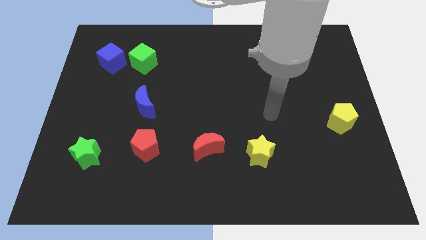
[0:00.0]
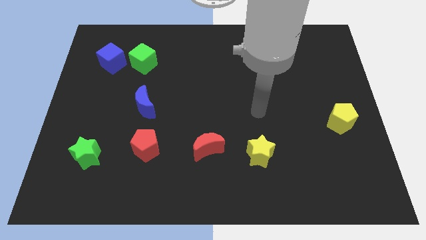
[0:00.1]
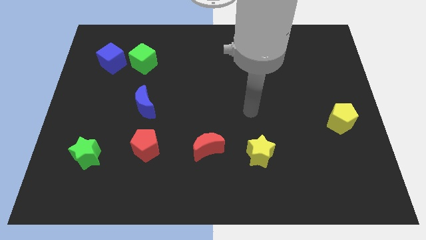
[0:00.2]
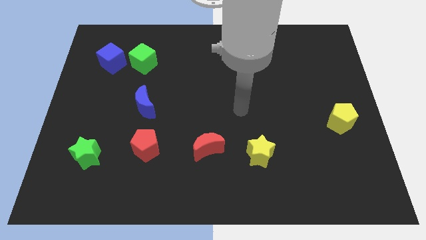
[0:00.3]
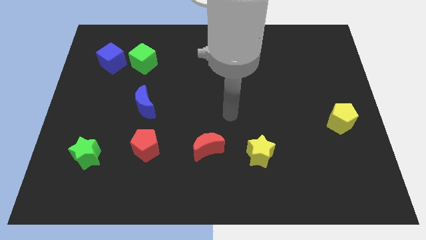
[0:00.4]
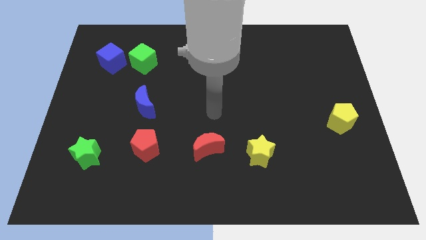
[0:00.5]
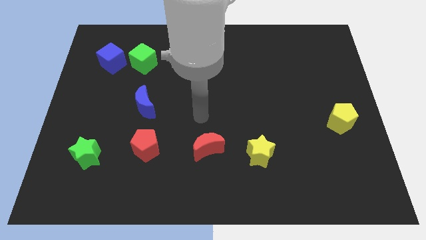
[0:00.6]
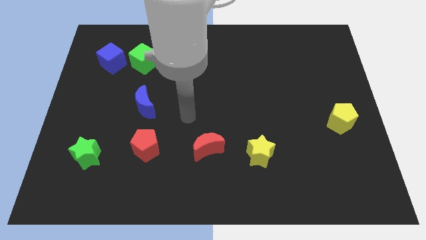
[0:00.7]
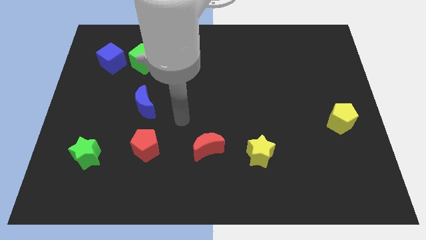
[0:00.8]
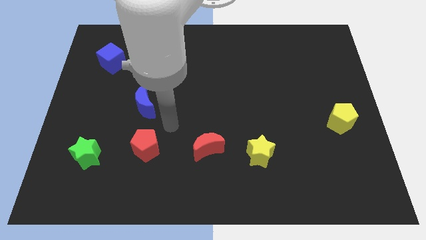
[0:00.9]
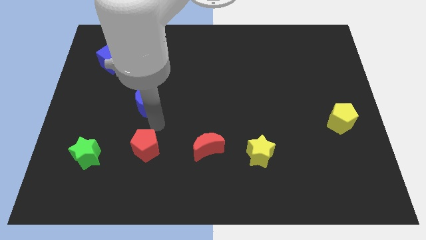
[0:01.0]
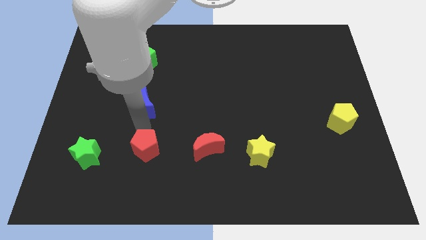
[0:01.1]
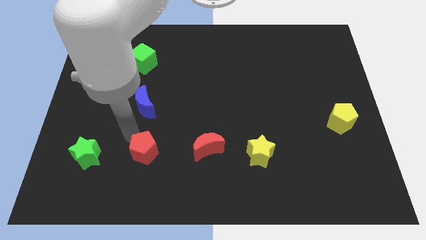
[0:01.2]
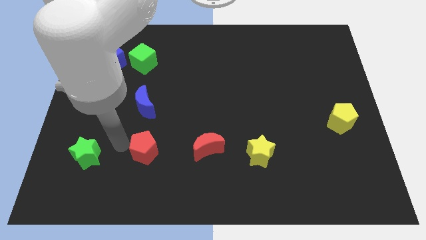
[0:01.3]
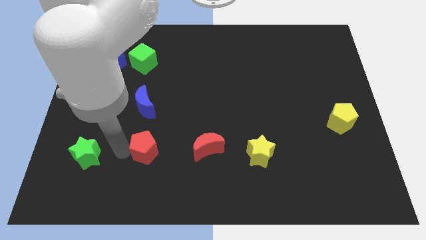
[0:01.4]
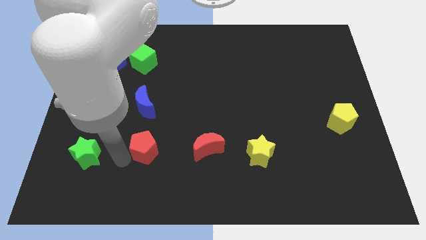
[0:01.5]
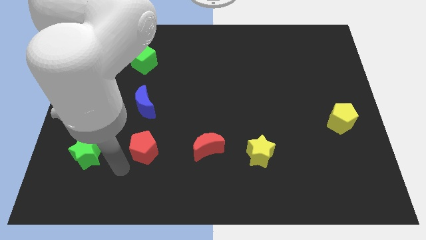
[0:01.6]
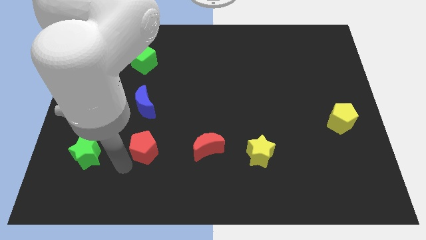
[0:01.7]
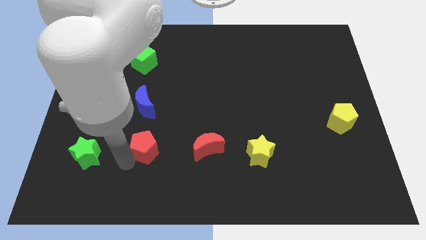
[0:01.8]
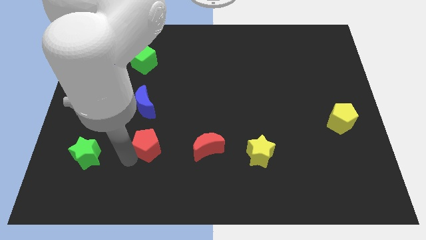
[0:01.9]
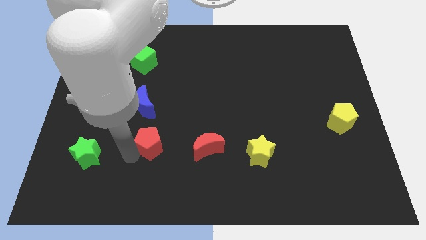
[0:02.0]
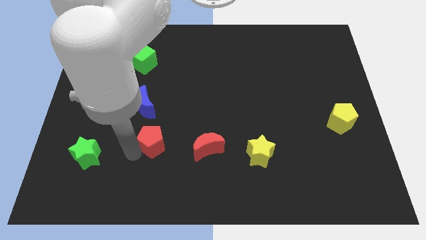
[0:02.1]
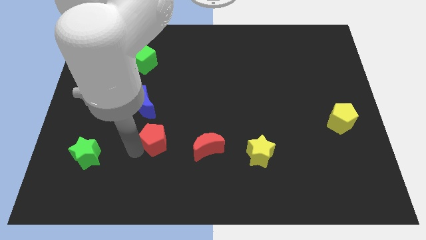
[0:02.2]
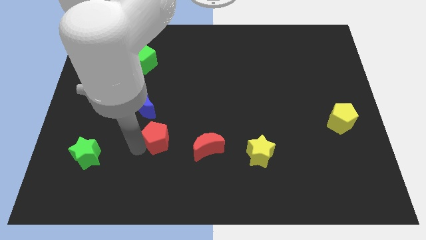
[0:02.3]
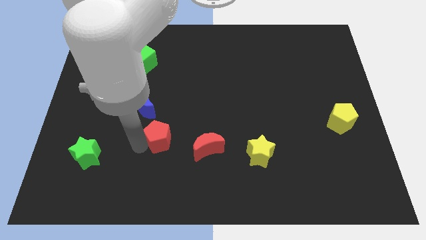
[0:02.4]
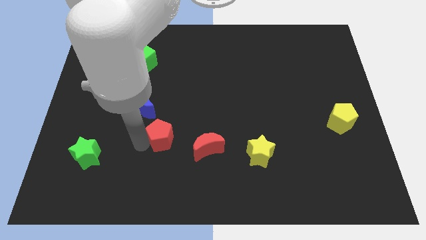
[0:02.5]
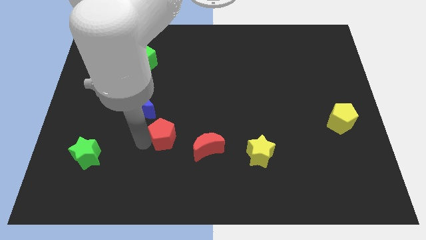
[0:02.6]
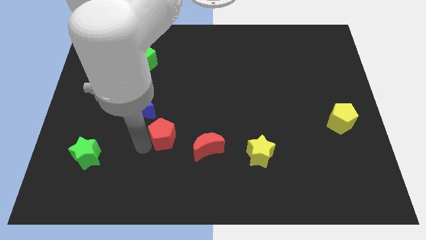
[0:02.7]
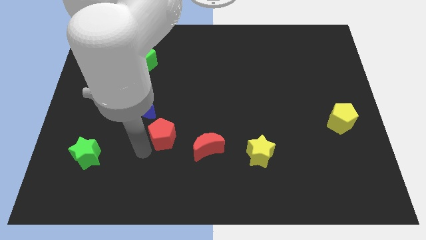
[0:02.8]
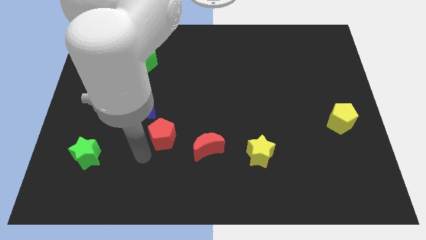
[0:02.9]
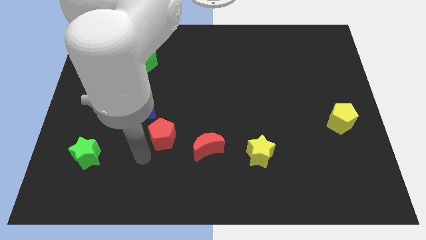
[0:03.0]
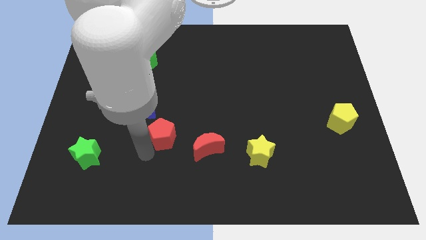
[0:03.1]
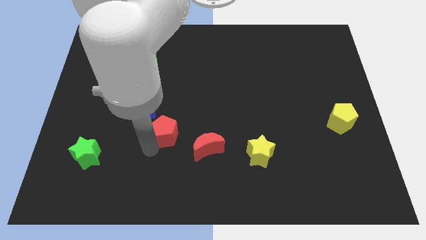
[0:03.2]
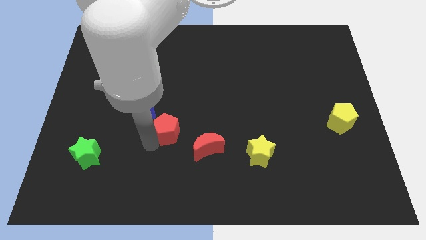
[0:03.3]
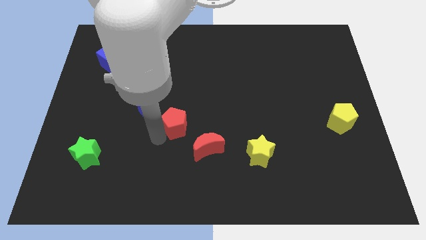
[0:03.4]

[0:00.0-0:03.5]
slightly push the red pentagon upwards and then right

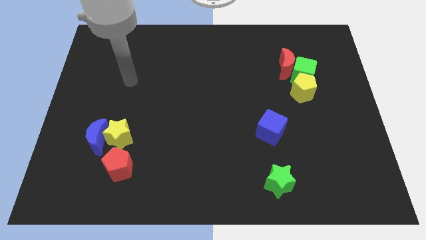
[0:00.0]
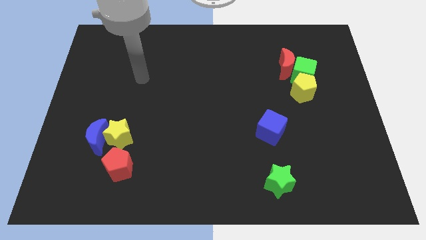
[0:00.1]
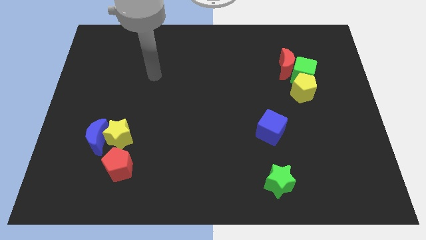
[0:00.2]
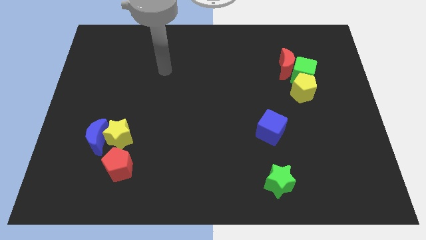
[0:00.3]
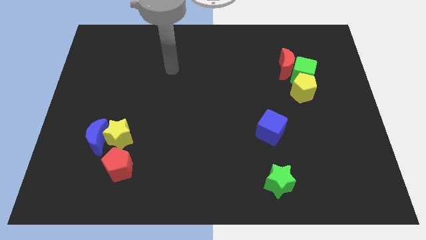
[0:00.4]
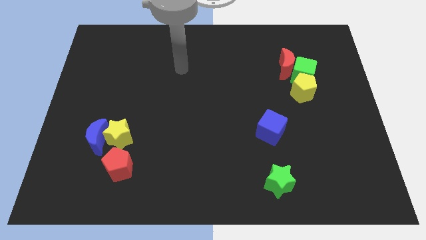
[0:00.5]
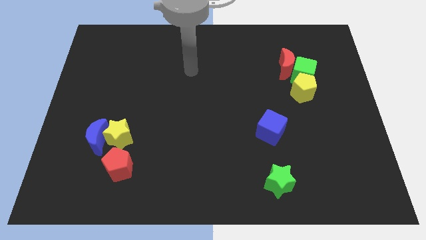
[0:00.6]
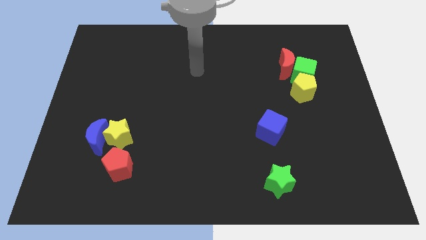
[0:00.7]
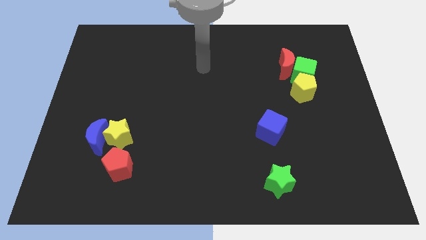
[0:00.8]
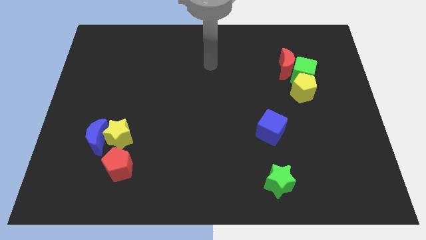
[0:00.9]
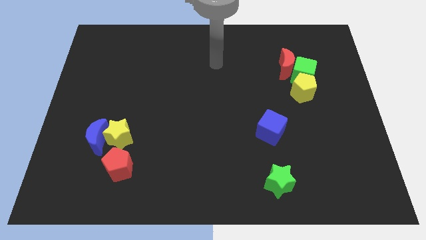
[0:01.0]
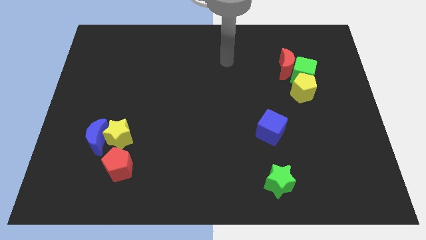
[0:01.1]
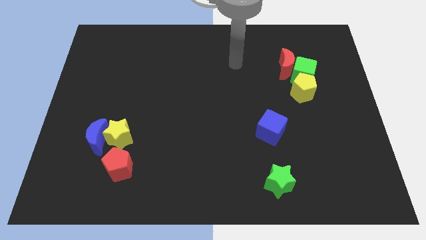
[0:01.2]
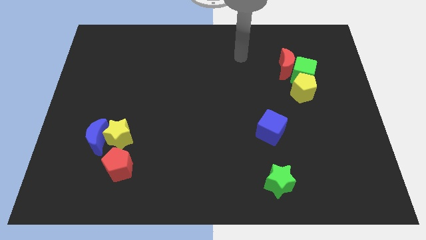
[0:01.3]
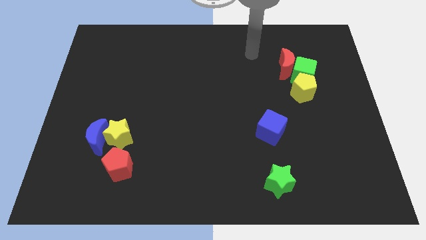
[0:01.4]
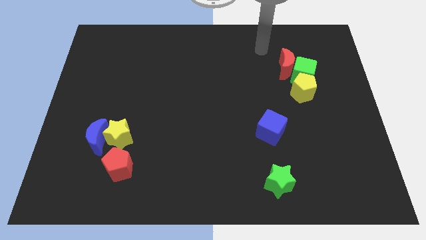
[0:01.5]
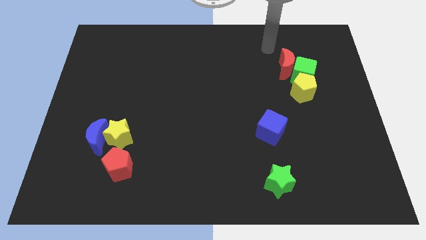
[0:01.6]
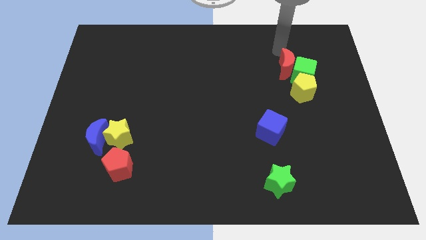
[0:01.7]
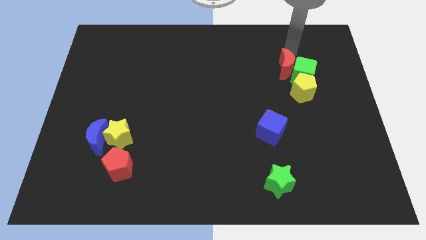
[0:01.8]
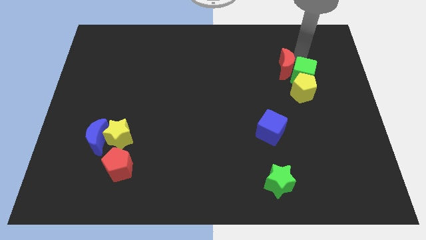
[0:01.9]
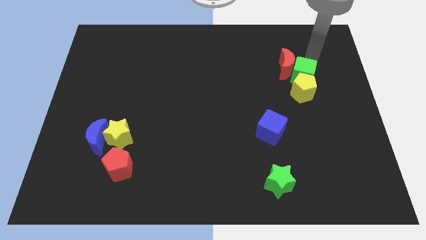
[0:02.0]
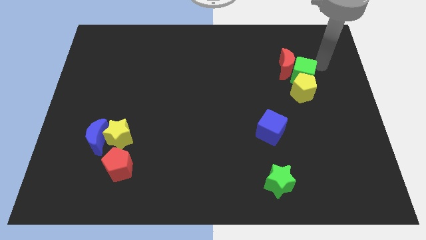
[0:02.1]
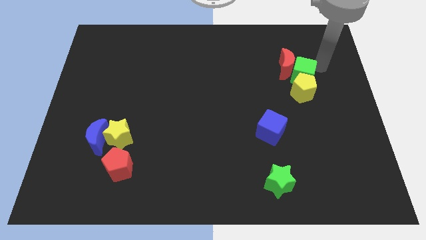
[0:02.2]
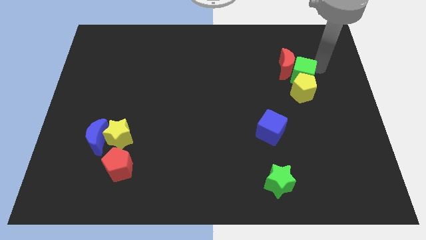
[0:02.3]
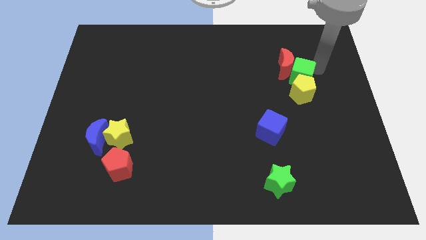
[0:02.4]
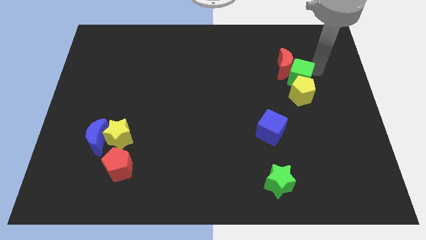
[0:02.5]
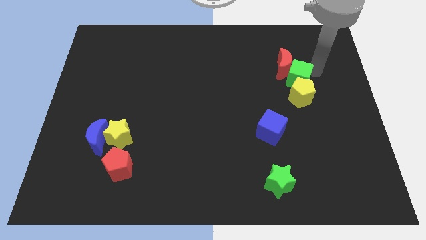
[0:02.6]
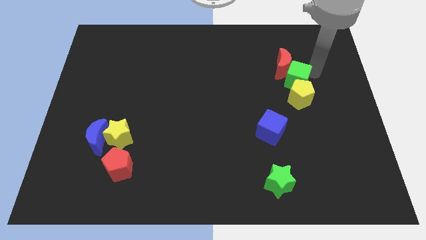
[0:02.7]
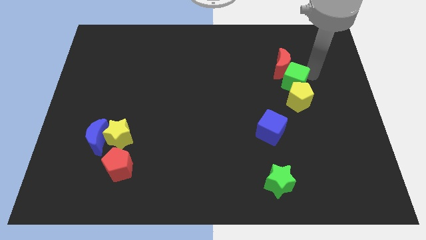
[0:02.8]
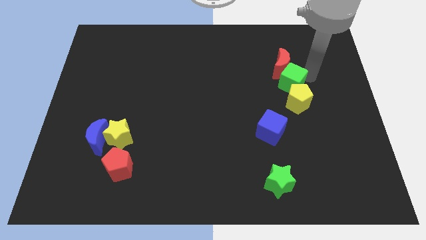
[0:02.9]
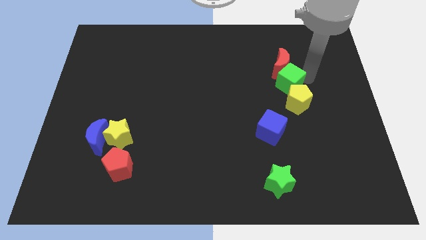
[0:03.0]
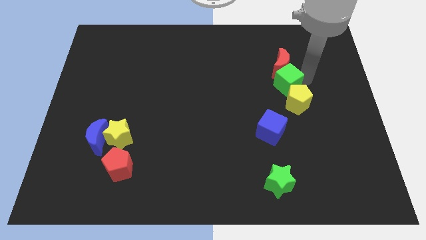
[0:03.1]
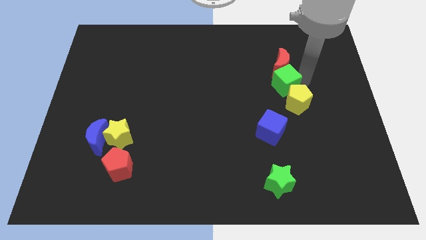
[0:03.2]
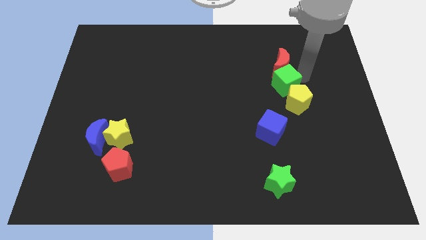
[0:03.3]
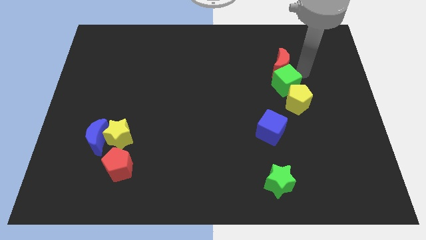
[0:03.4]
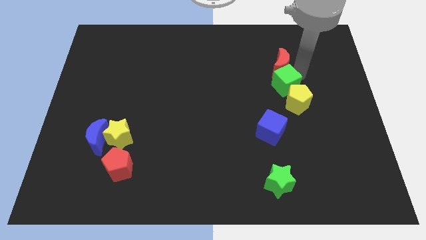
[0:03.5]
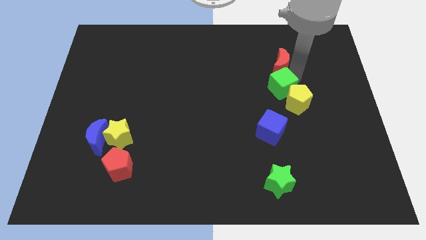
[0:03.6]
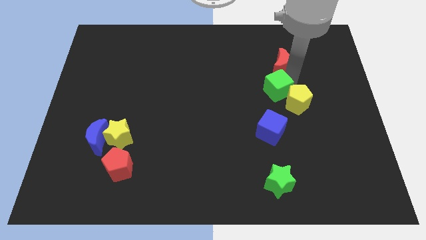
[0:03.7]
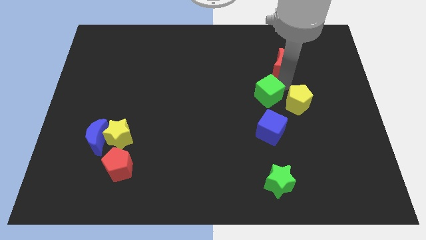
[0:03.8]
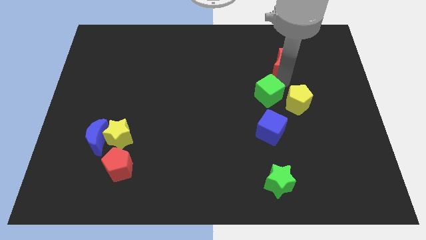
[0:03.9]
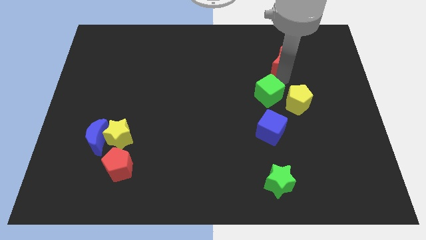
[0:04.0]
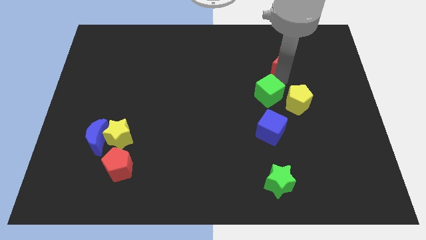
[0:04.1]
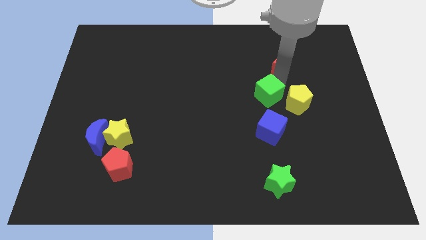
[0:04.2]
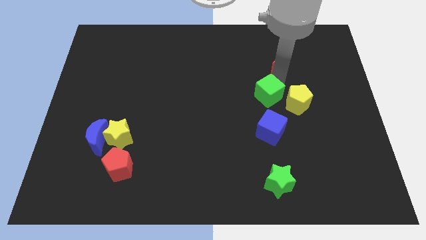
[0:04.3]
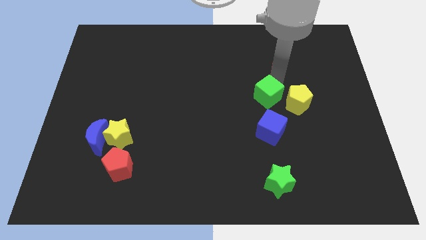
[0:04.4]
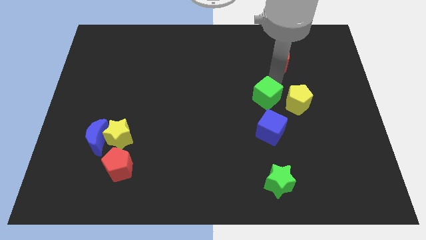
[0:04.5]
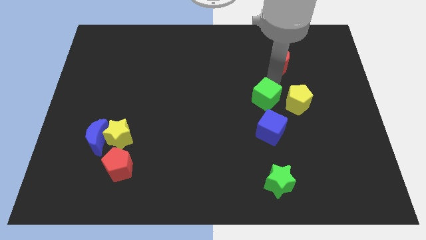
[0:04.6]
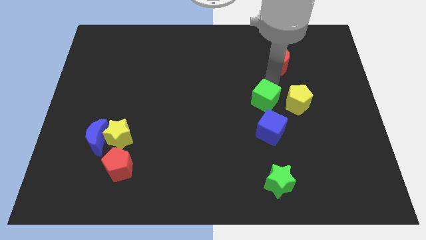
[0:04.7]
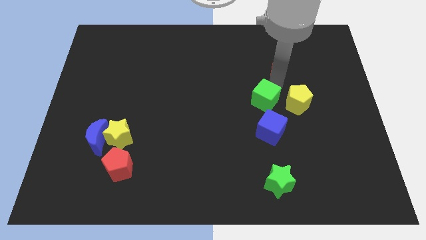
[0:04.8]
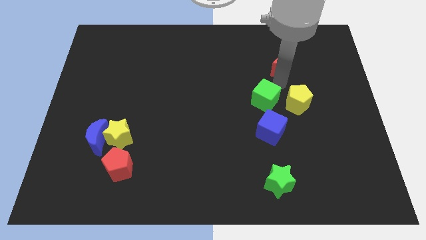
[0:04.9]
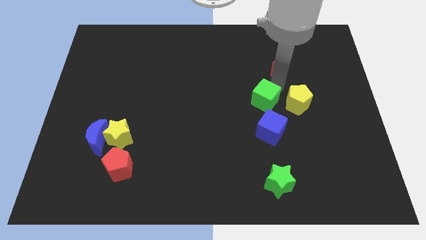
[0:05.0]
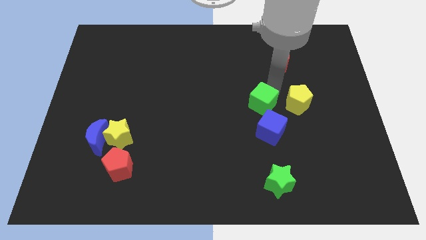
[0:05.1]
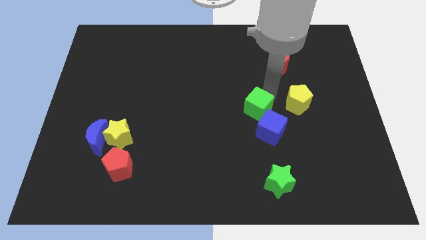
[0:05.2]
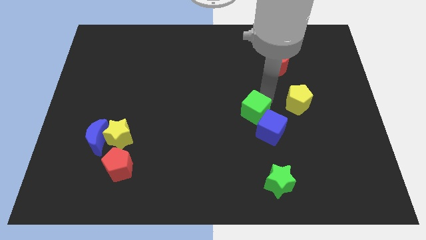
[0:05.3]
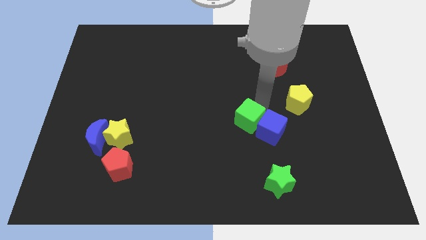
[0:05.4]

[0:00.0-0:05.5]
push the green cube down and then to the left
